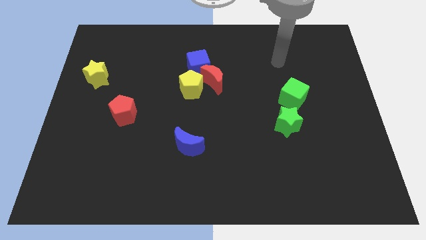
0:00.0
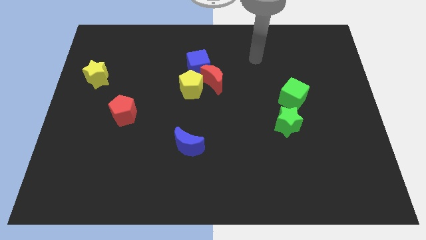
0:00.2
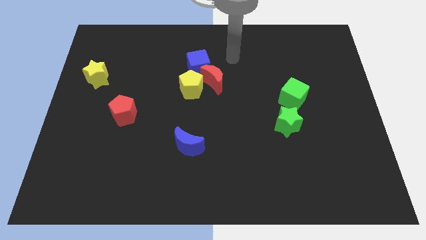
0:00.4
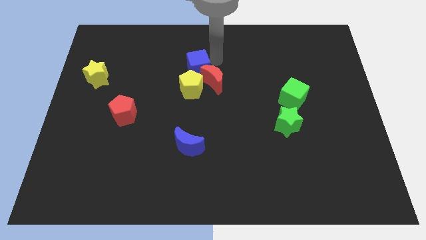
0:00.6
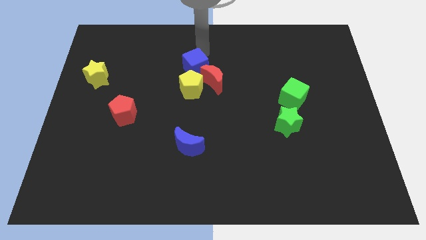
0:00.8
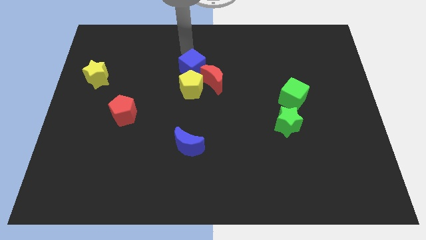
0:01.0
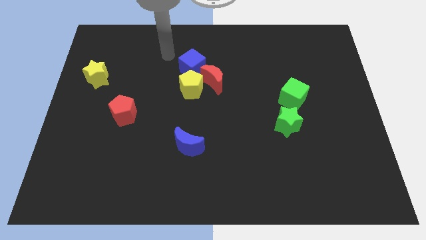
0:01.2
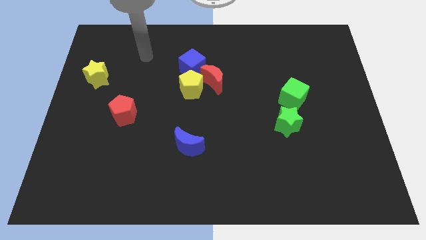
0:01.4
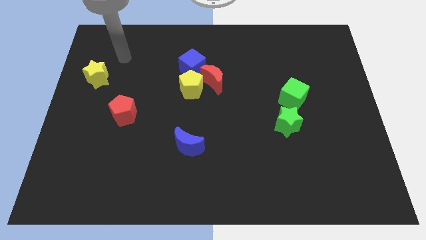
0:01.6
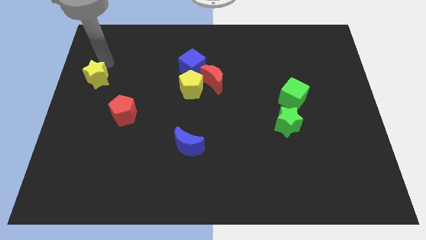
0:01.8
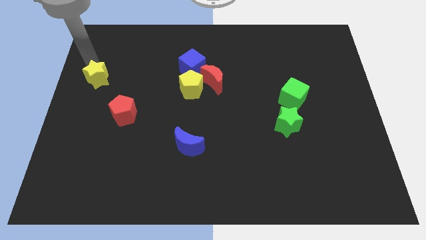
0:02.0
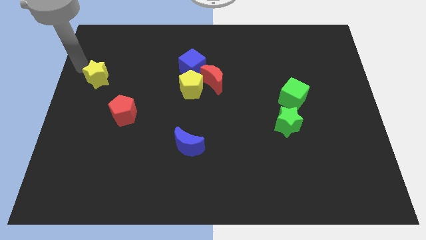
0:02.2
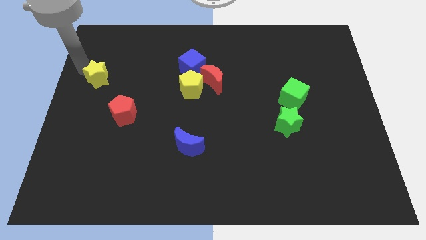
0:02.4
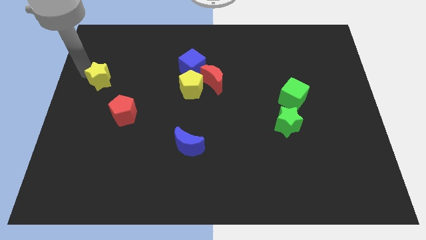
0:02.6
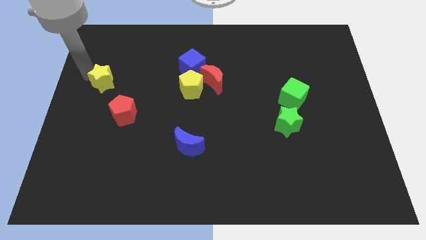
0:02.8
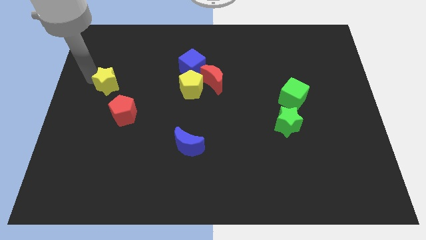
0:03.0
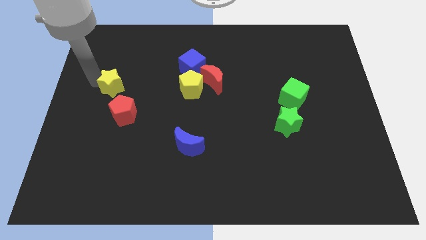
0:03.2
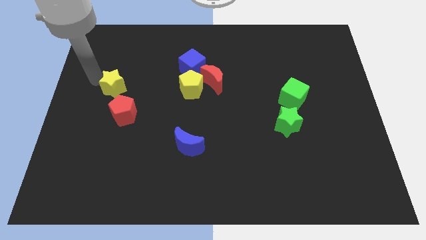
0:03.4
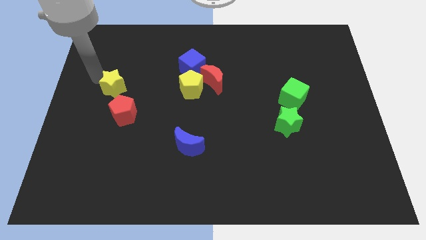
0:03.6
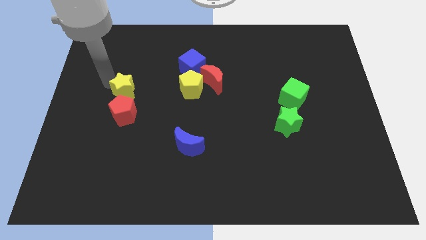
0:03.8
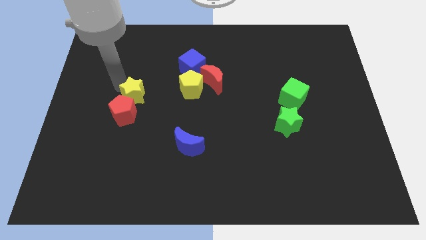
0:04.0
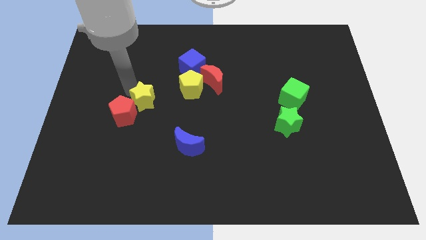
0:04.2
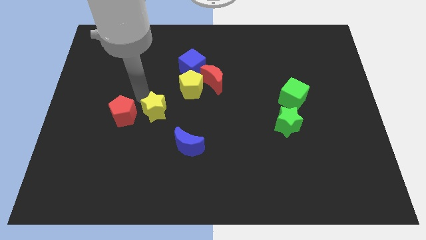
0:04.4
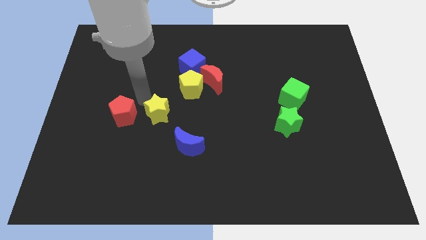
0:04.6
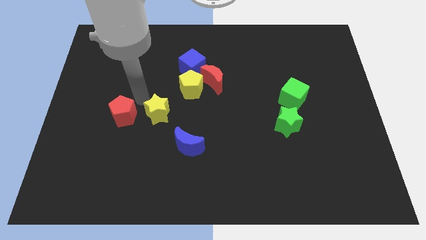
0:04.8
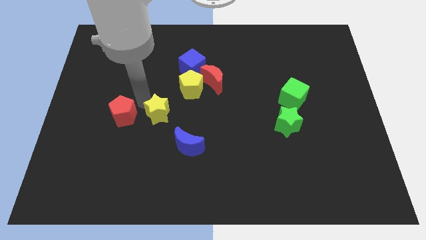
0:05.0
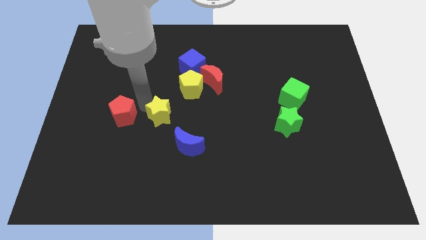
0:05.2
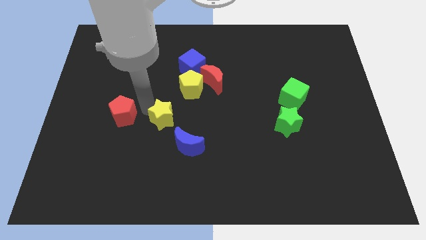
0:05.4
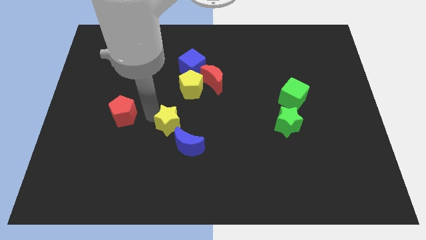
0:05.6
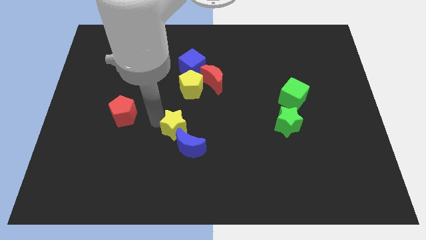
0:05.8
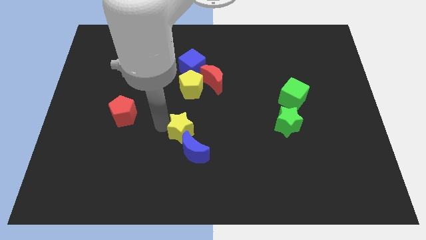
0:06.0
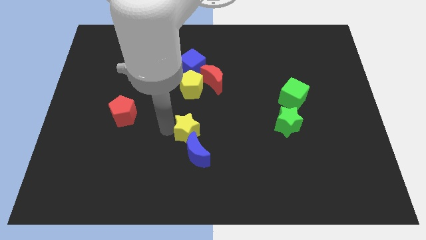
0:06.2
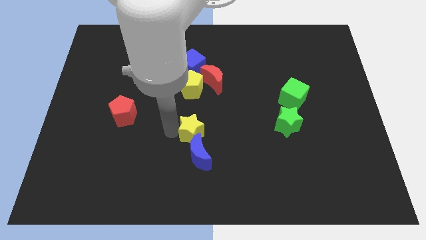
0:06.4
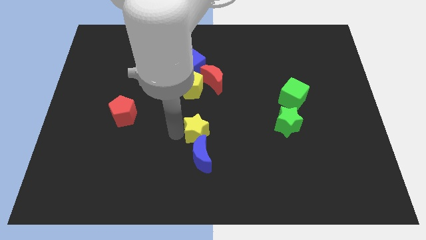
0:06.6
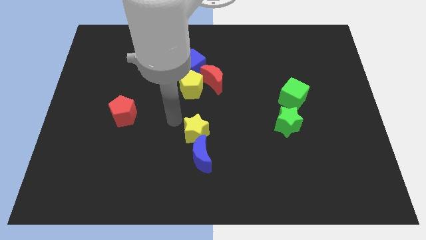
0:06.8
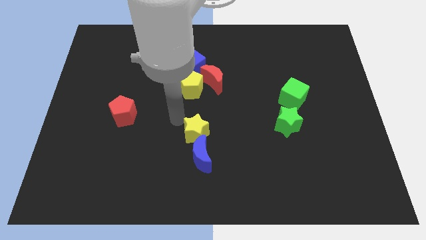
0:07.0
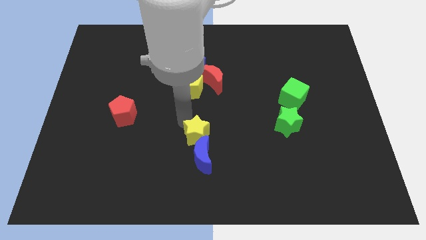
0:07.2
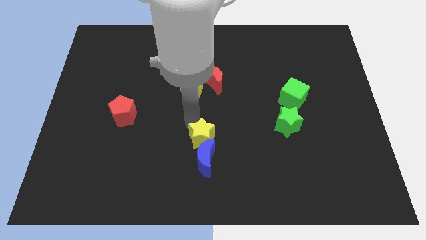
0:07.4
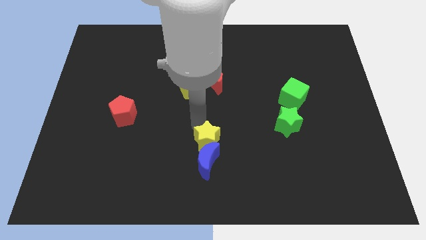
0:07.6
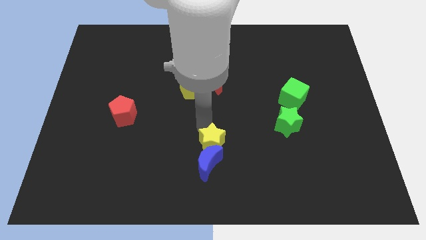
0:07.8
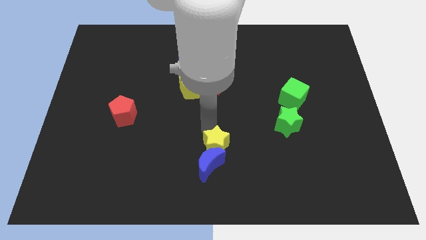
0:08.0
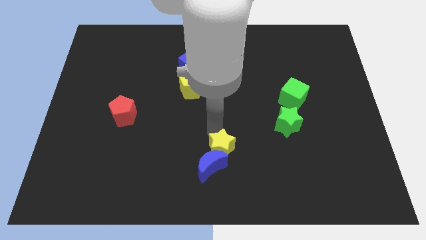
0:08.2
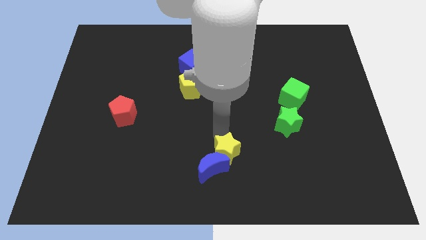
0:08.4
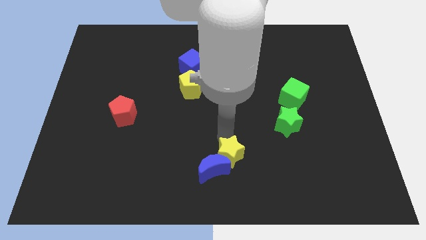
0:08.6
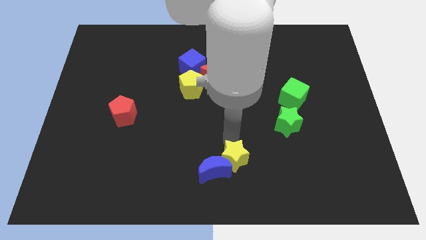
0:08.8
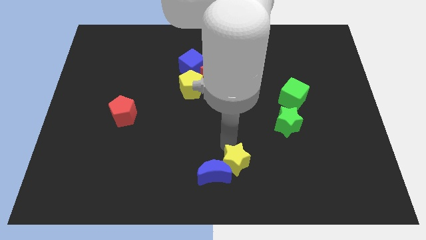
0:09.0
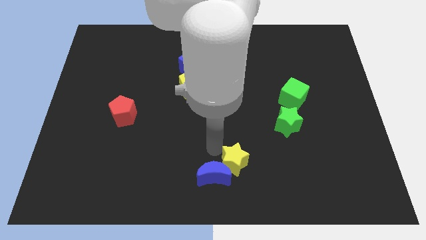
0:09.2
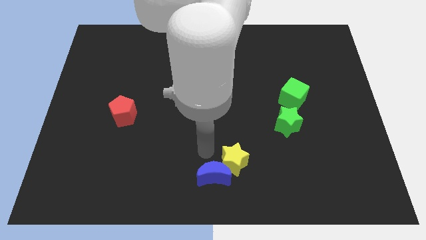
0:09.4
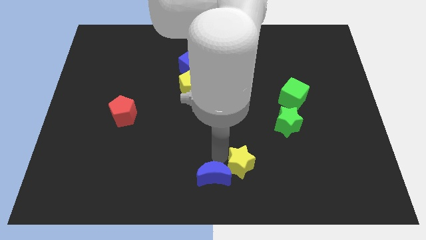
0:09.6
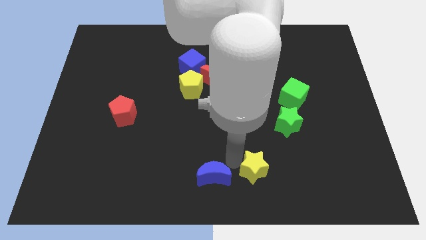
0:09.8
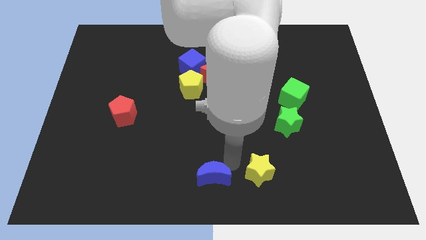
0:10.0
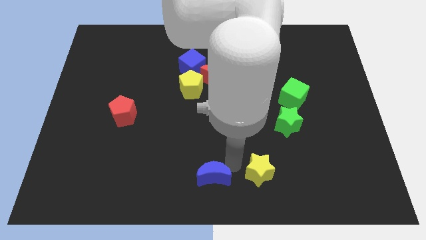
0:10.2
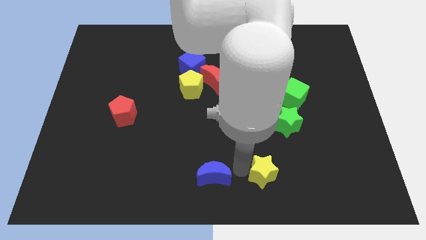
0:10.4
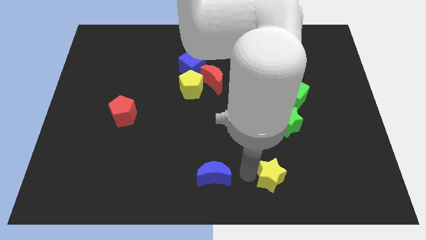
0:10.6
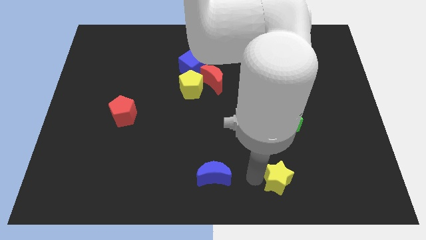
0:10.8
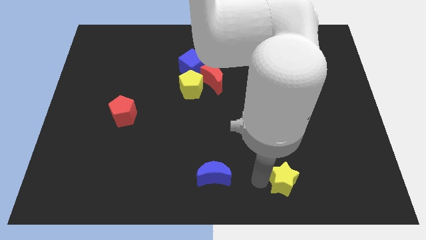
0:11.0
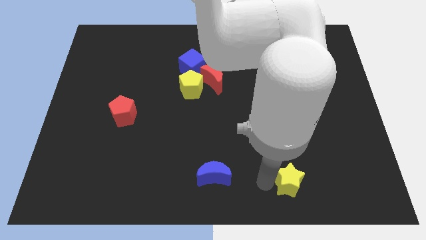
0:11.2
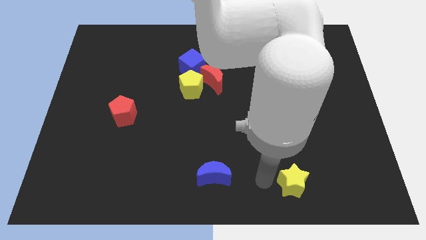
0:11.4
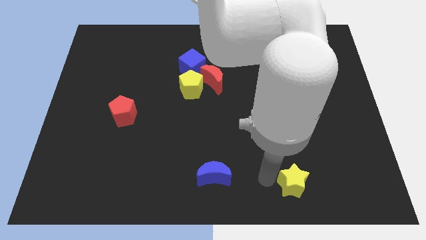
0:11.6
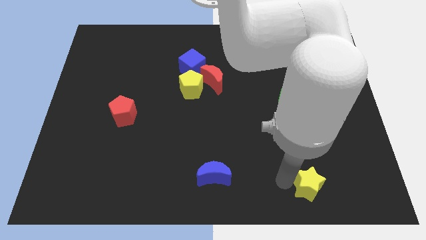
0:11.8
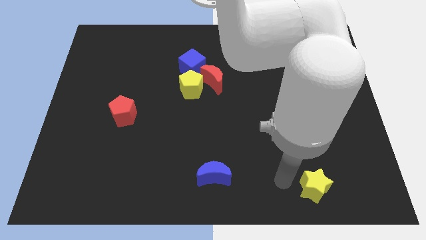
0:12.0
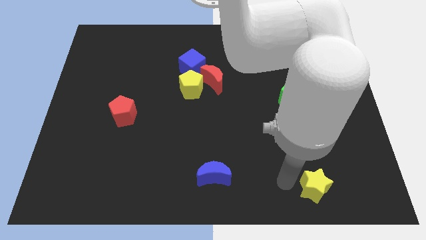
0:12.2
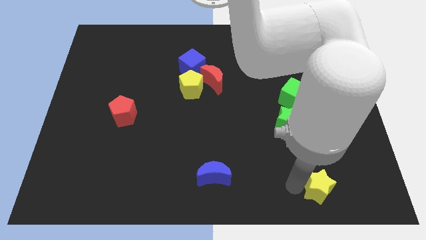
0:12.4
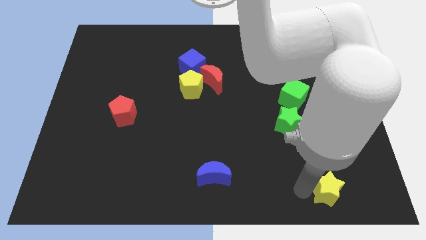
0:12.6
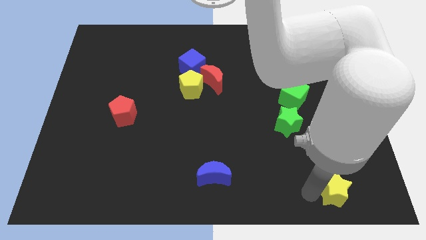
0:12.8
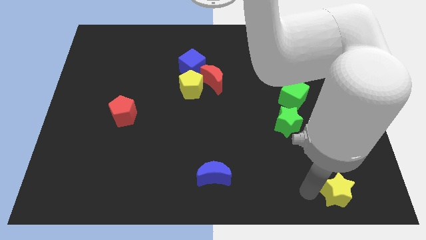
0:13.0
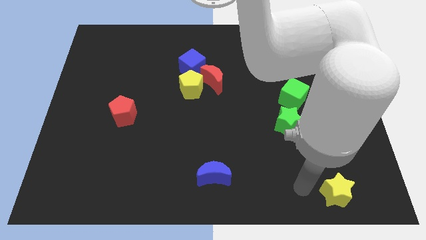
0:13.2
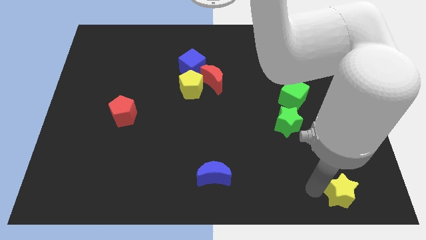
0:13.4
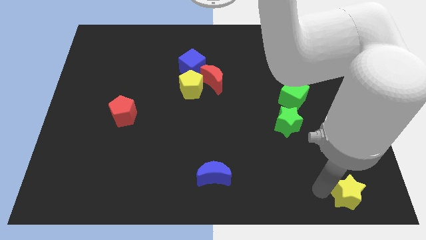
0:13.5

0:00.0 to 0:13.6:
push the yellow star to the lower right corner
